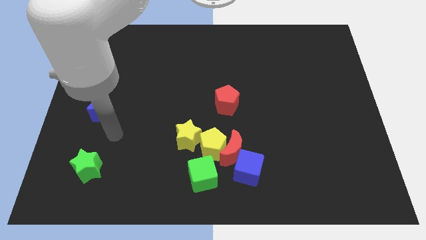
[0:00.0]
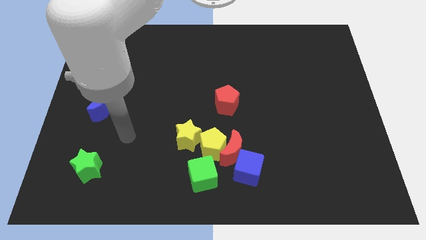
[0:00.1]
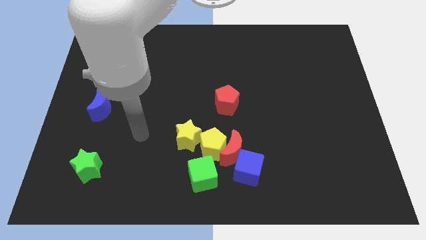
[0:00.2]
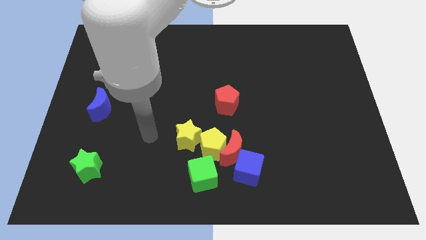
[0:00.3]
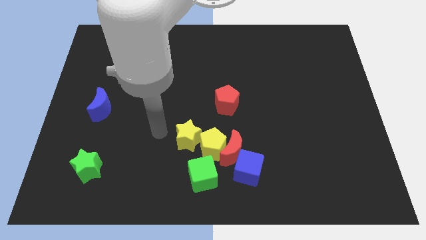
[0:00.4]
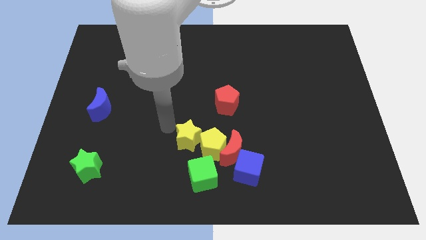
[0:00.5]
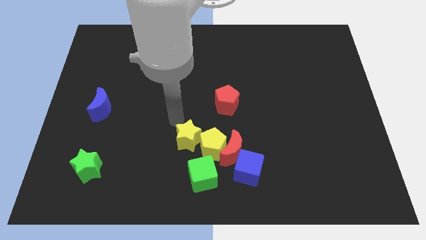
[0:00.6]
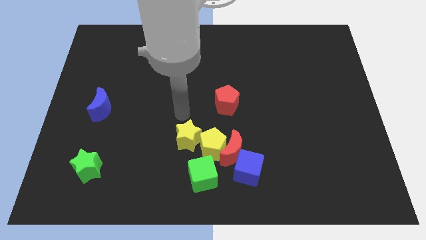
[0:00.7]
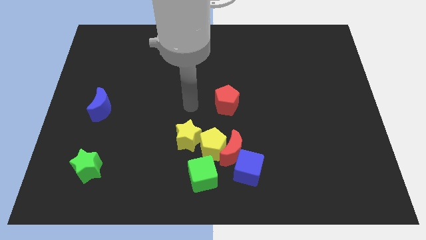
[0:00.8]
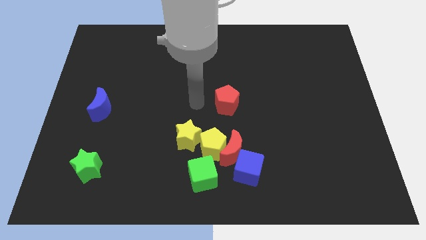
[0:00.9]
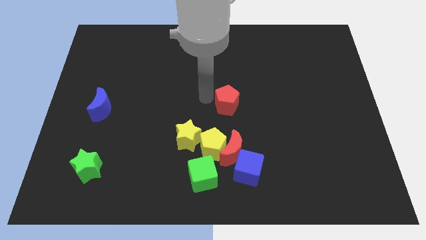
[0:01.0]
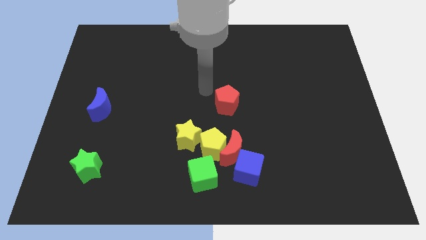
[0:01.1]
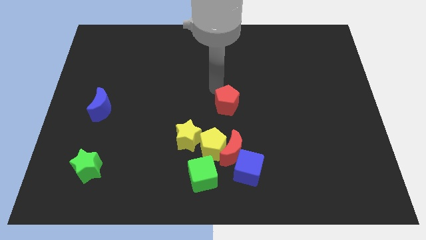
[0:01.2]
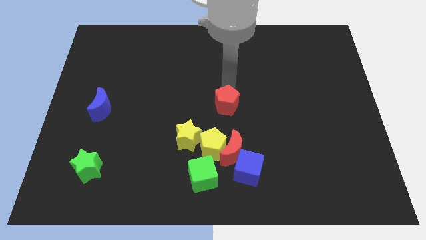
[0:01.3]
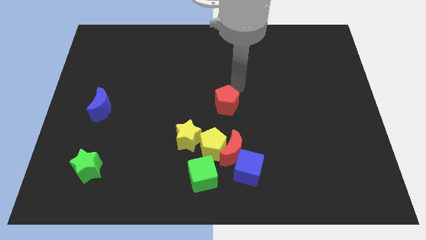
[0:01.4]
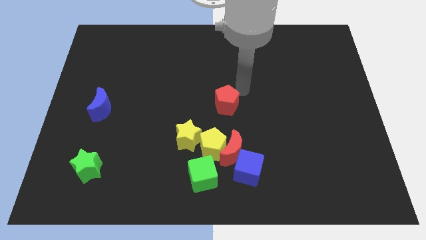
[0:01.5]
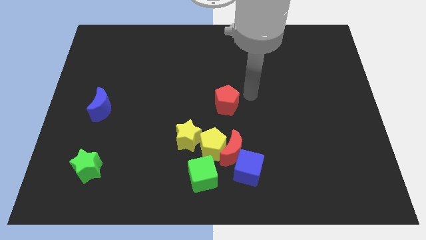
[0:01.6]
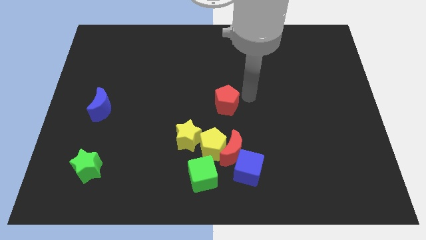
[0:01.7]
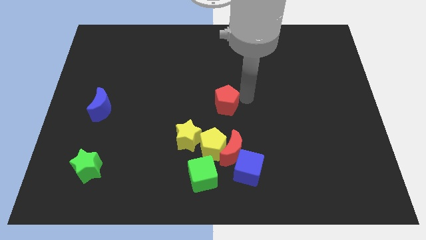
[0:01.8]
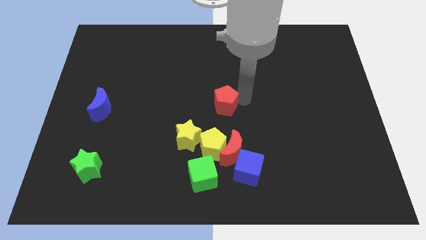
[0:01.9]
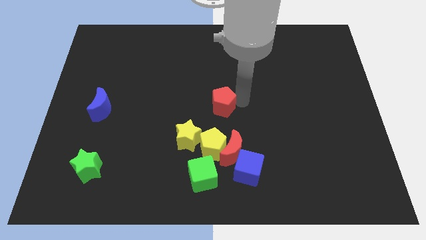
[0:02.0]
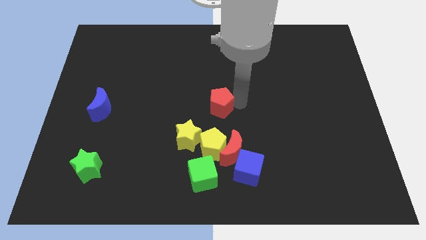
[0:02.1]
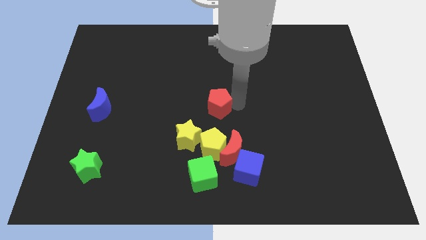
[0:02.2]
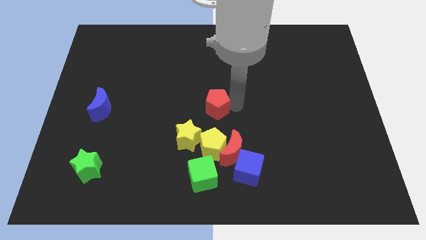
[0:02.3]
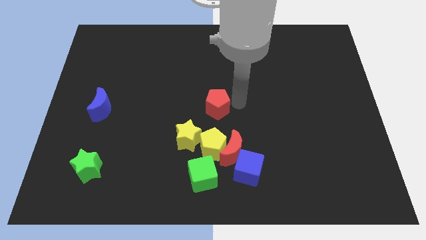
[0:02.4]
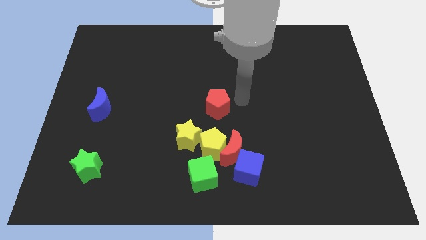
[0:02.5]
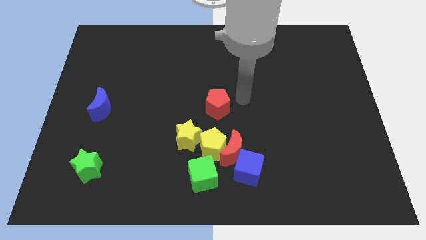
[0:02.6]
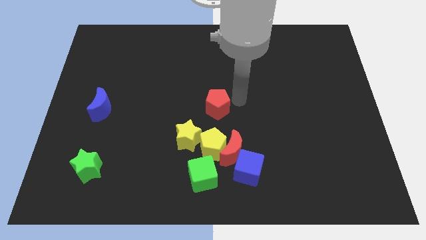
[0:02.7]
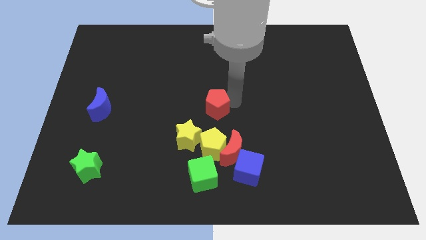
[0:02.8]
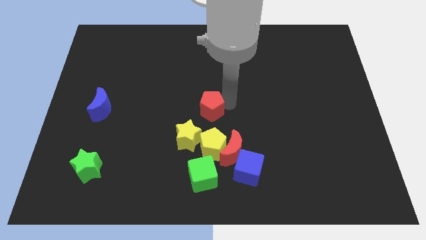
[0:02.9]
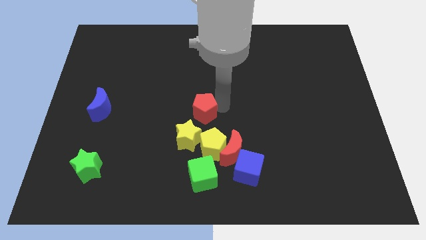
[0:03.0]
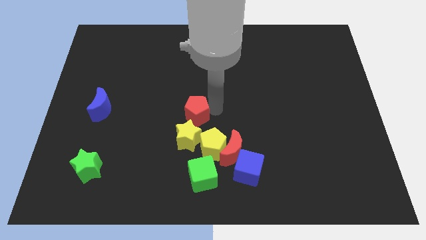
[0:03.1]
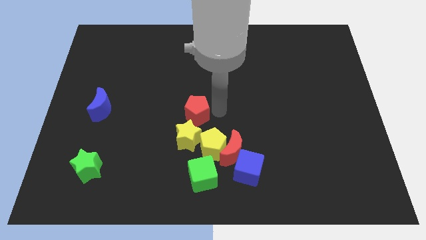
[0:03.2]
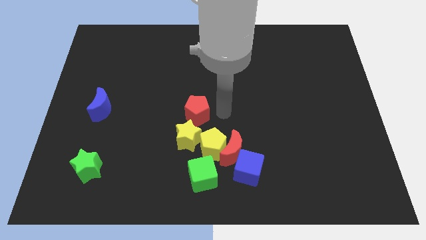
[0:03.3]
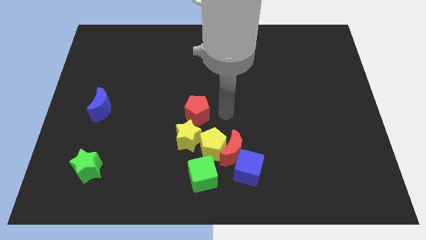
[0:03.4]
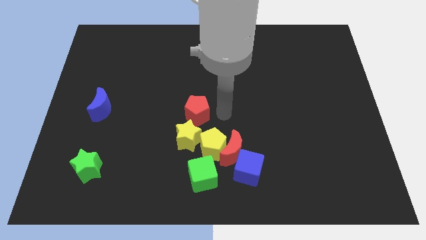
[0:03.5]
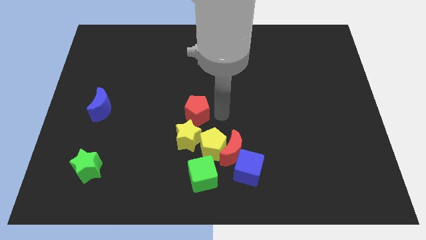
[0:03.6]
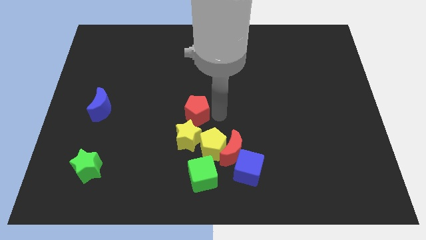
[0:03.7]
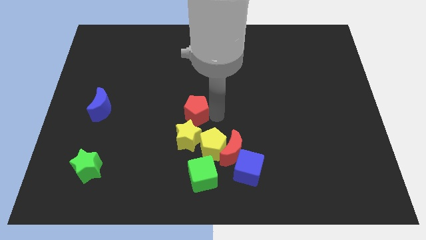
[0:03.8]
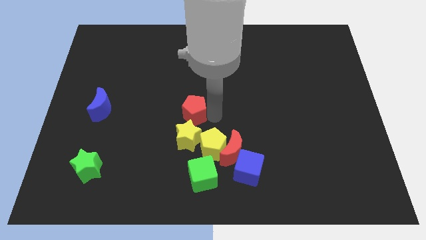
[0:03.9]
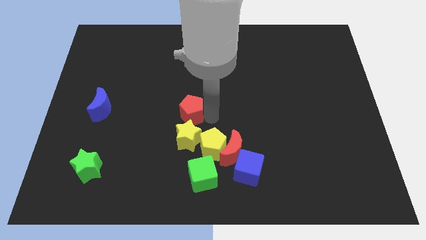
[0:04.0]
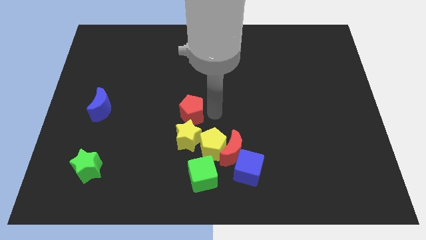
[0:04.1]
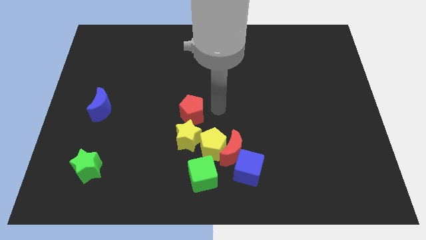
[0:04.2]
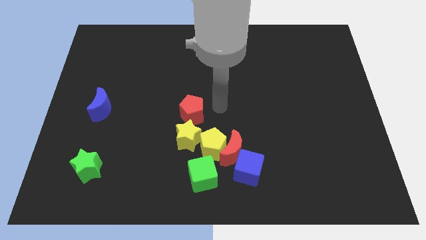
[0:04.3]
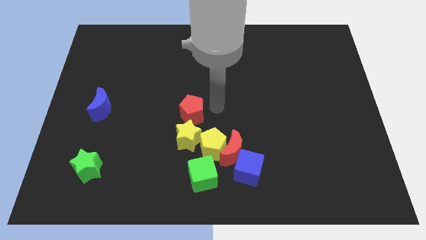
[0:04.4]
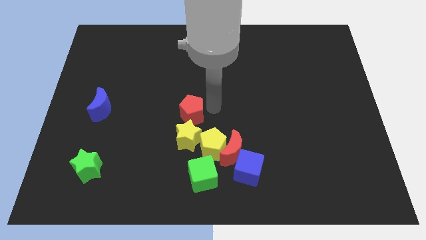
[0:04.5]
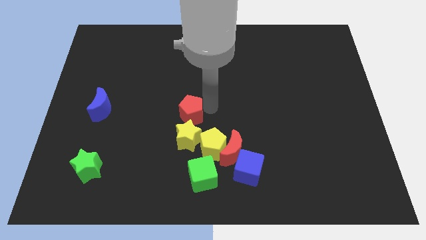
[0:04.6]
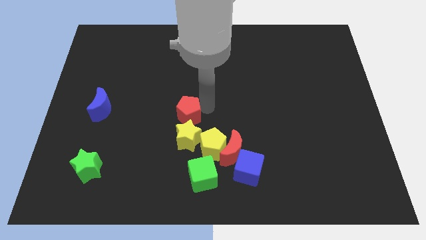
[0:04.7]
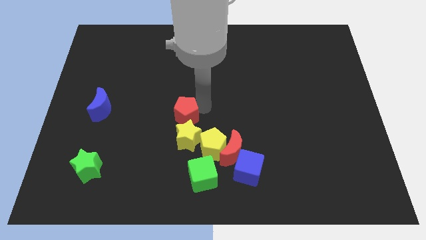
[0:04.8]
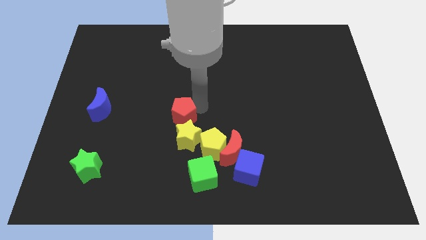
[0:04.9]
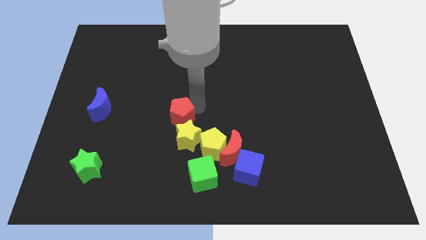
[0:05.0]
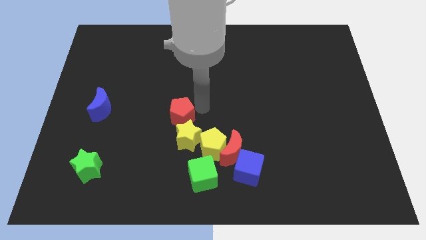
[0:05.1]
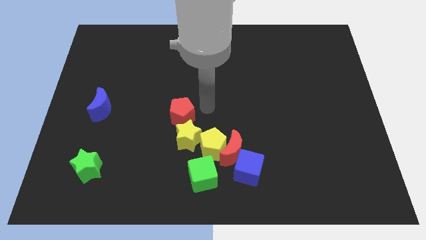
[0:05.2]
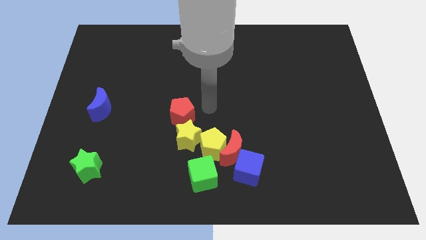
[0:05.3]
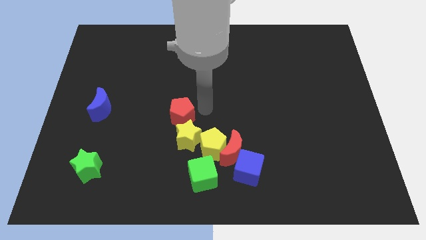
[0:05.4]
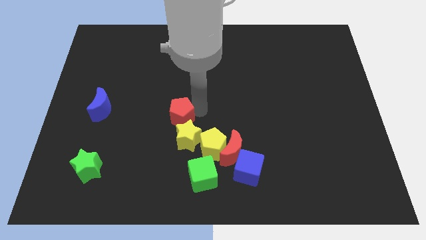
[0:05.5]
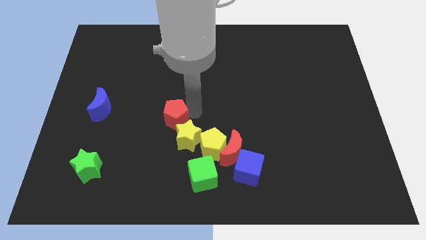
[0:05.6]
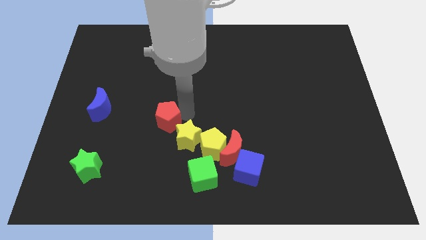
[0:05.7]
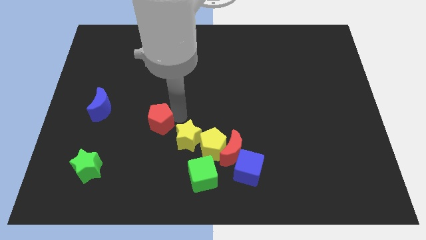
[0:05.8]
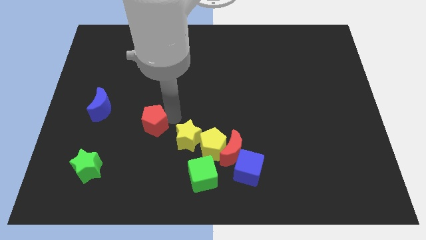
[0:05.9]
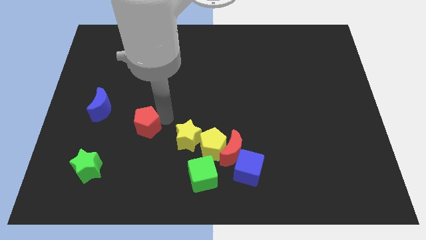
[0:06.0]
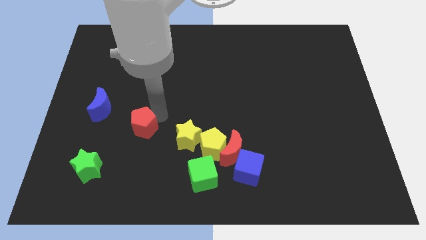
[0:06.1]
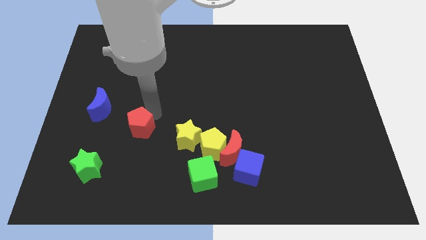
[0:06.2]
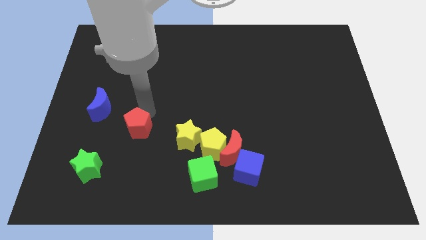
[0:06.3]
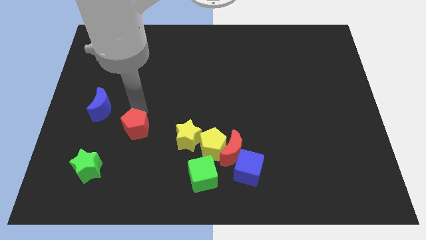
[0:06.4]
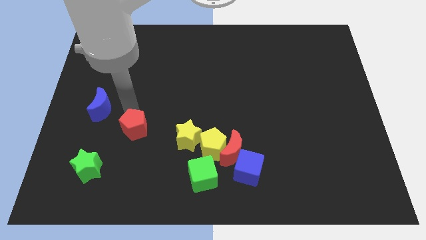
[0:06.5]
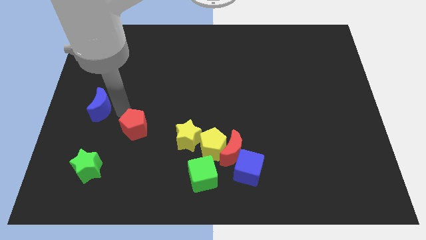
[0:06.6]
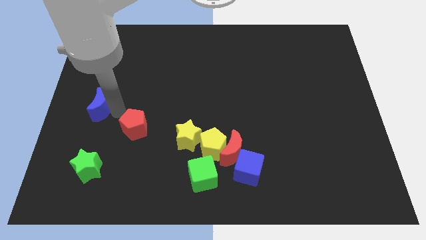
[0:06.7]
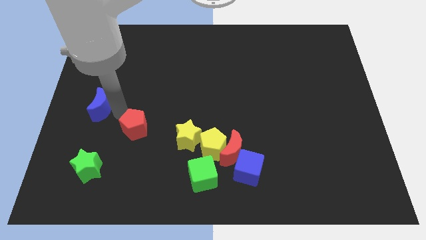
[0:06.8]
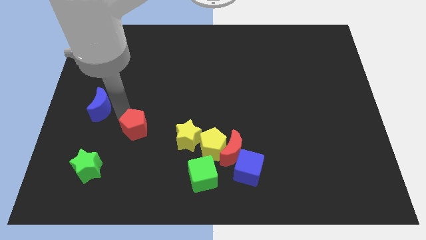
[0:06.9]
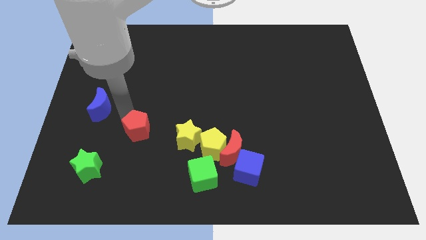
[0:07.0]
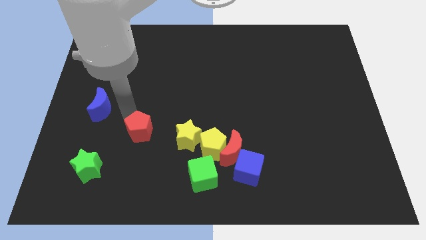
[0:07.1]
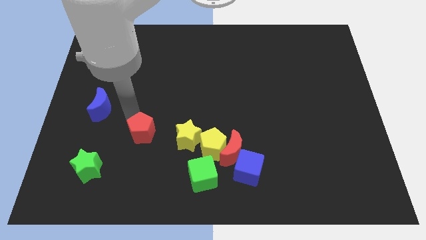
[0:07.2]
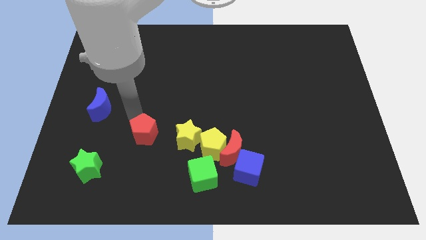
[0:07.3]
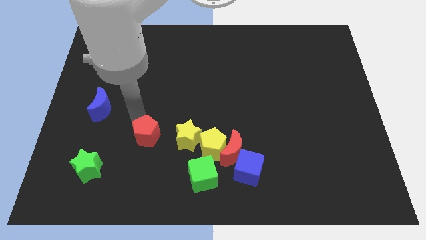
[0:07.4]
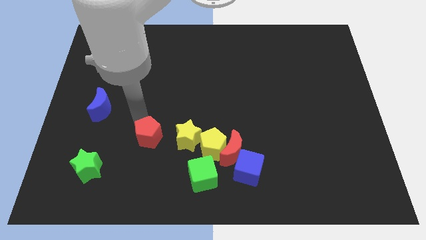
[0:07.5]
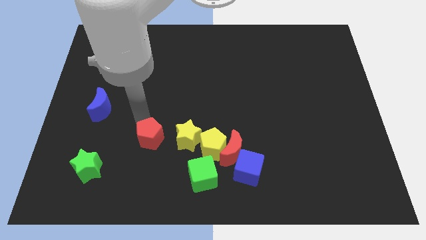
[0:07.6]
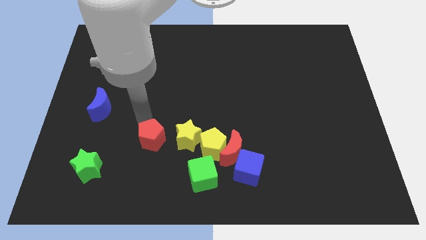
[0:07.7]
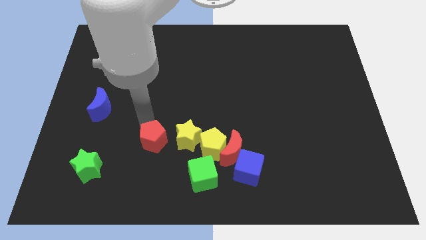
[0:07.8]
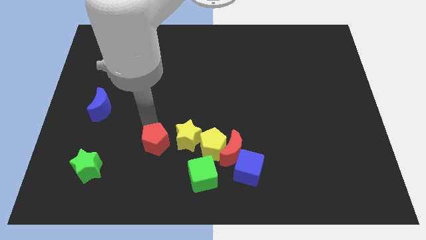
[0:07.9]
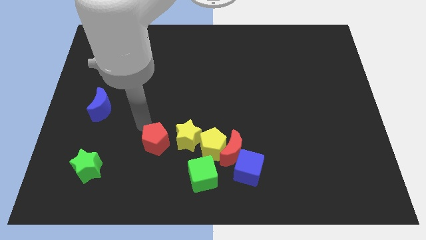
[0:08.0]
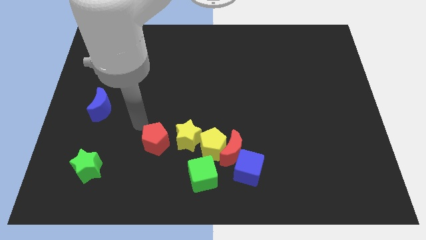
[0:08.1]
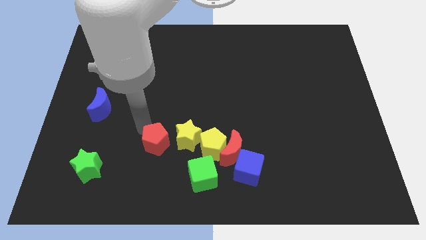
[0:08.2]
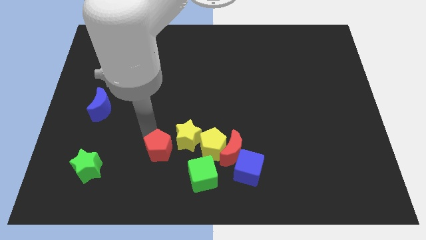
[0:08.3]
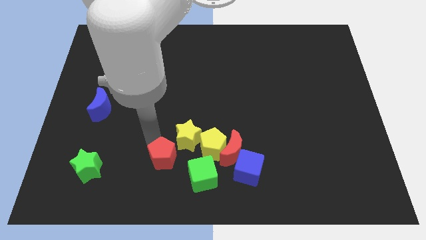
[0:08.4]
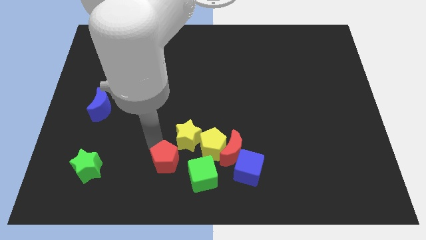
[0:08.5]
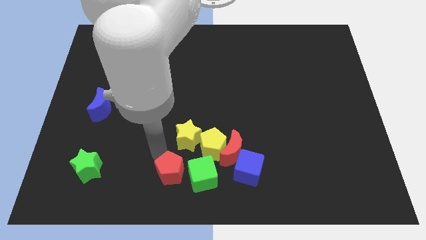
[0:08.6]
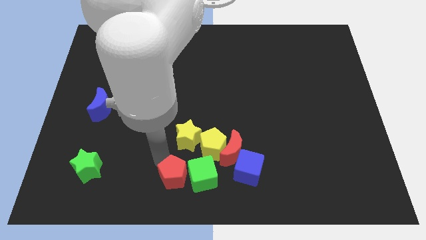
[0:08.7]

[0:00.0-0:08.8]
move the red pentagon towards the green cube
